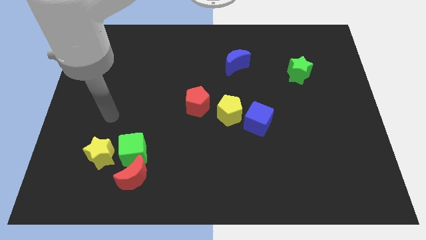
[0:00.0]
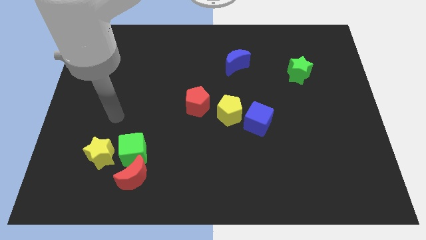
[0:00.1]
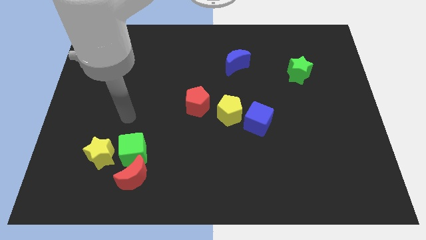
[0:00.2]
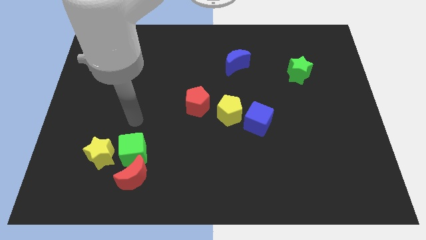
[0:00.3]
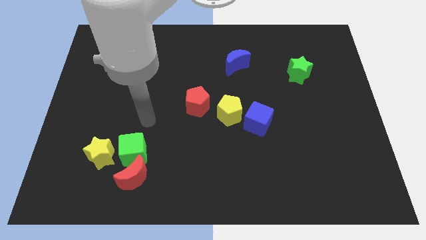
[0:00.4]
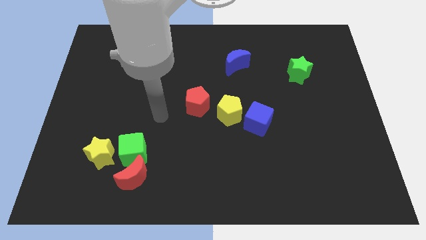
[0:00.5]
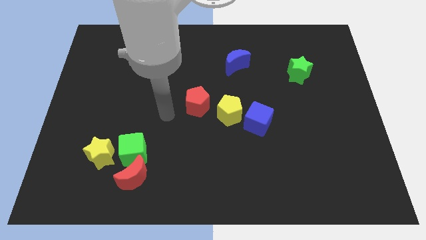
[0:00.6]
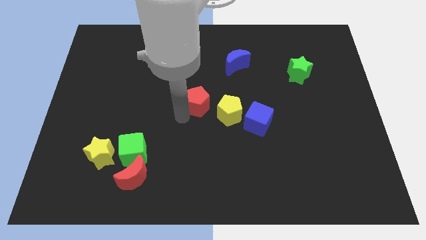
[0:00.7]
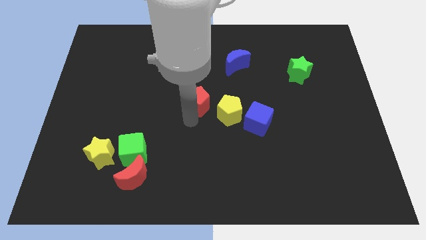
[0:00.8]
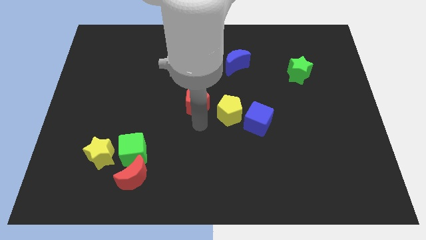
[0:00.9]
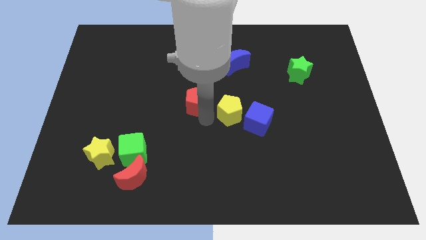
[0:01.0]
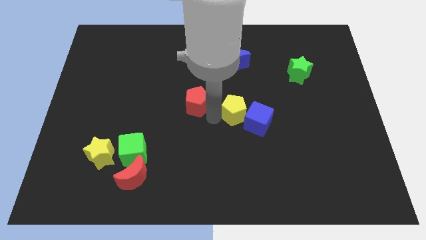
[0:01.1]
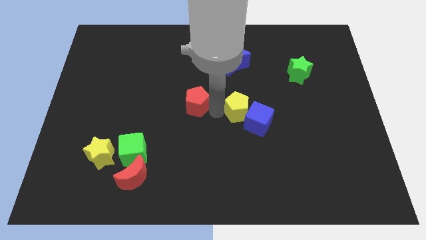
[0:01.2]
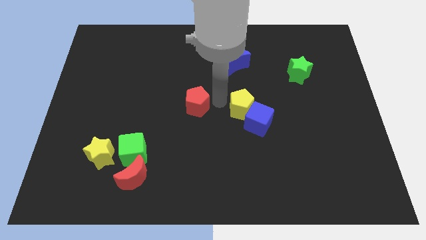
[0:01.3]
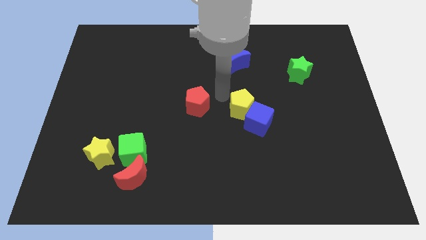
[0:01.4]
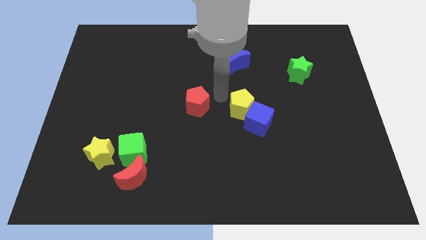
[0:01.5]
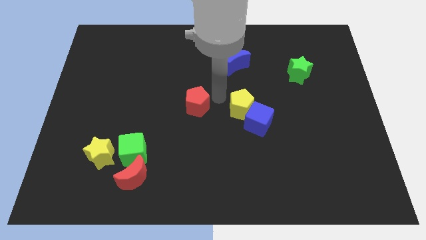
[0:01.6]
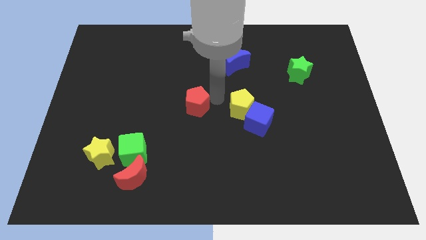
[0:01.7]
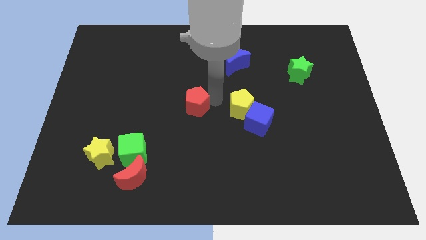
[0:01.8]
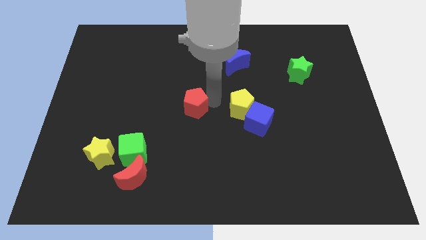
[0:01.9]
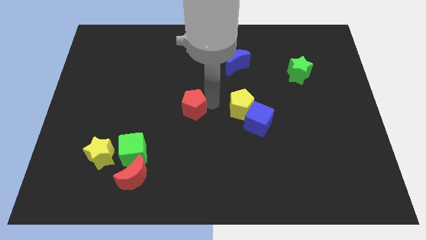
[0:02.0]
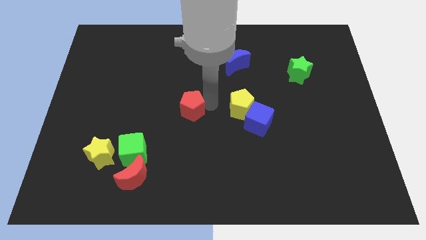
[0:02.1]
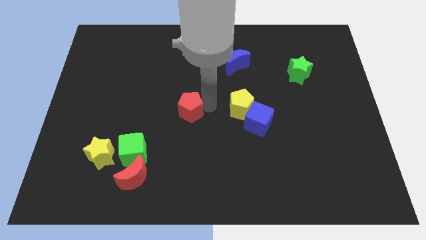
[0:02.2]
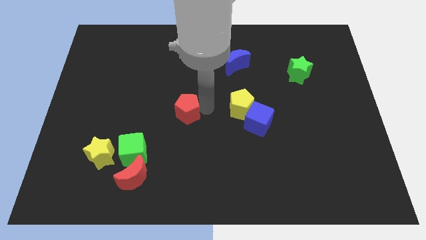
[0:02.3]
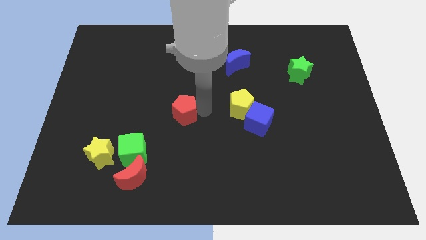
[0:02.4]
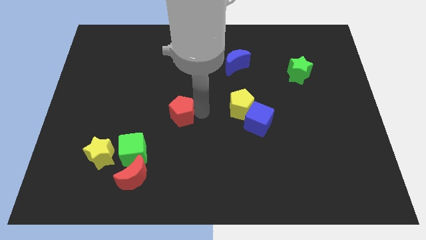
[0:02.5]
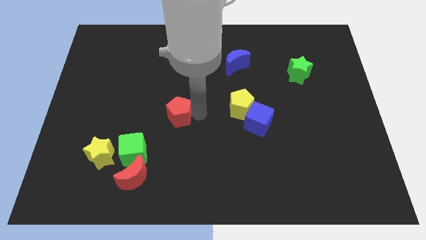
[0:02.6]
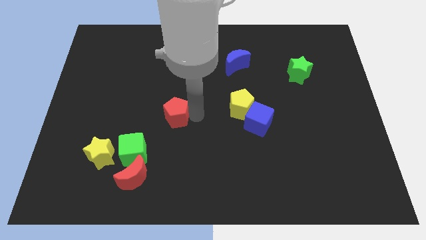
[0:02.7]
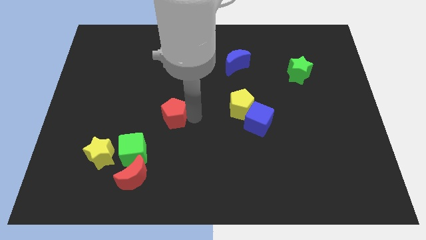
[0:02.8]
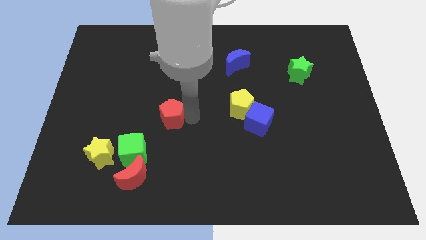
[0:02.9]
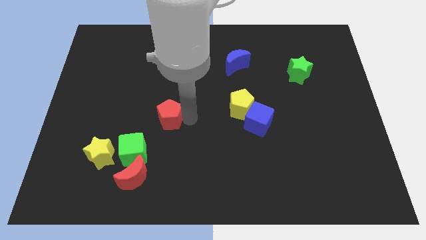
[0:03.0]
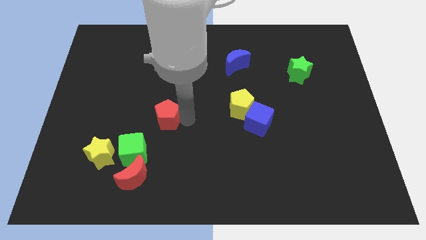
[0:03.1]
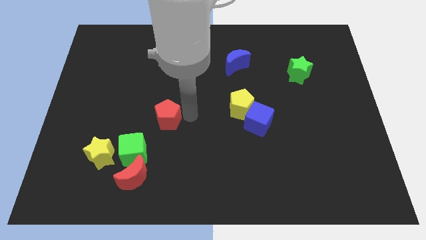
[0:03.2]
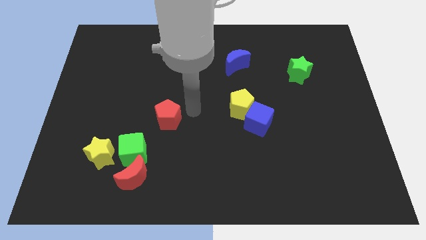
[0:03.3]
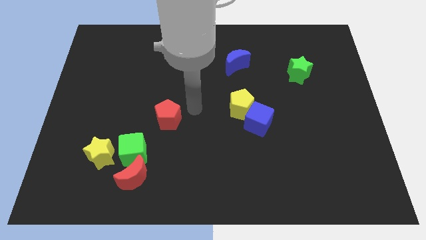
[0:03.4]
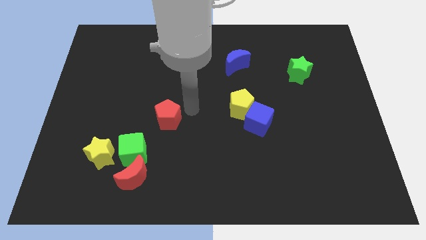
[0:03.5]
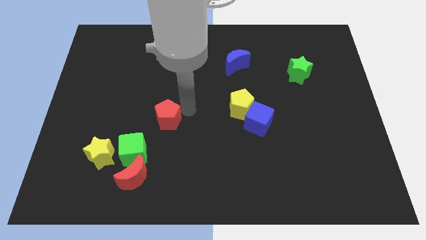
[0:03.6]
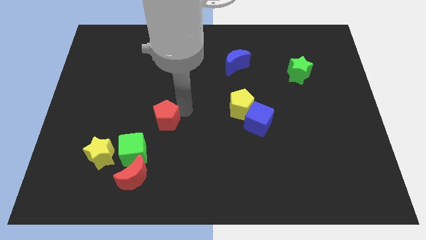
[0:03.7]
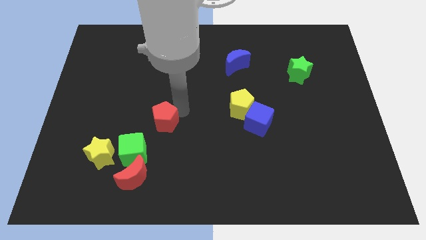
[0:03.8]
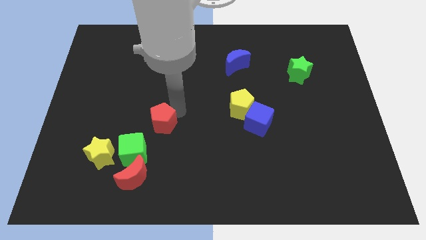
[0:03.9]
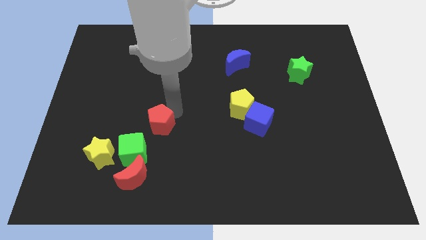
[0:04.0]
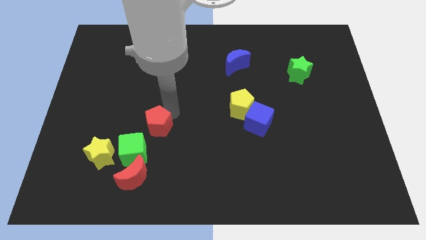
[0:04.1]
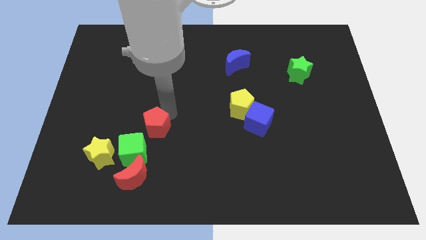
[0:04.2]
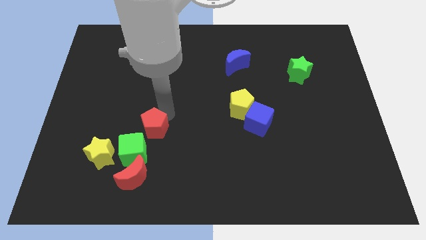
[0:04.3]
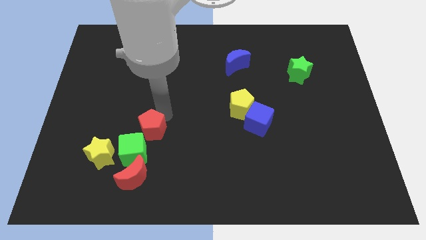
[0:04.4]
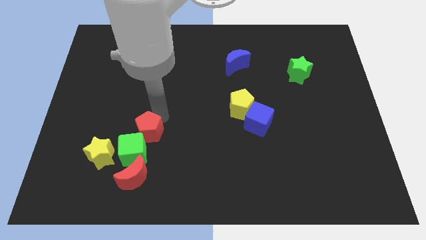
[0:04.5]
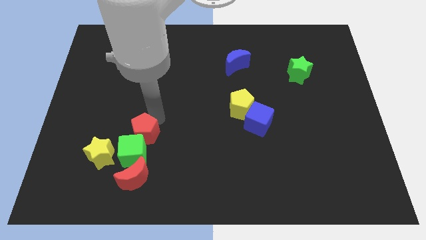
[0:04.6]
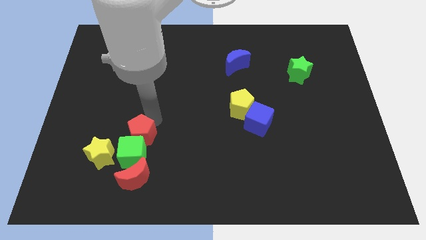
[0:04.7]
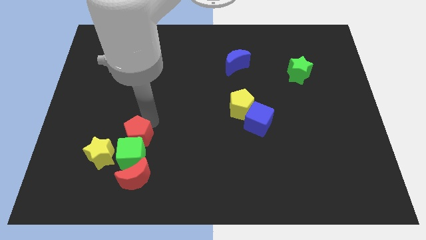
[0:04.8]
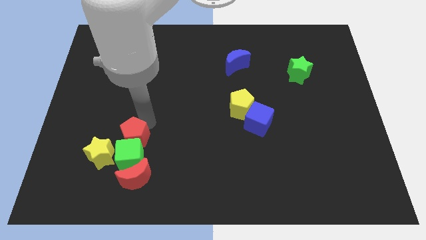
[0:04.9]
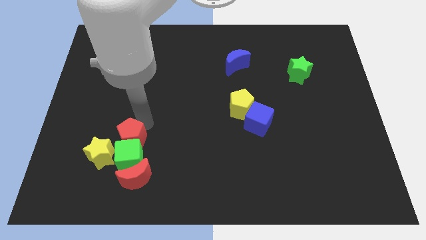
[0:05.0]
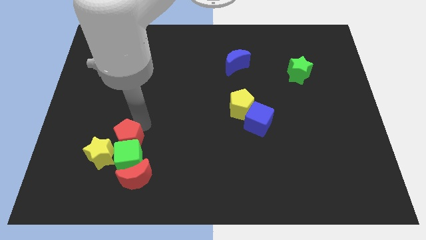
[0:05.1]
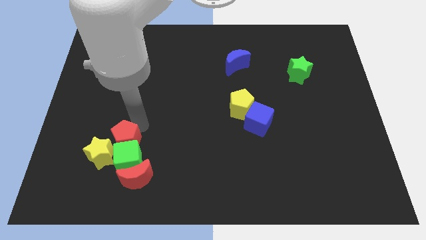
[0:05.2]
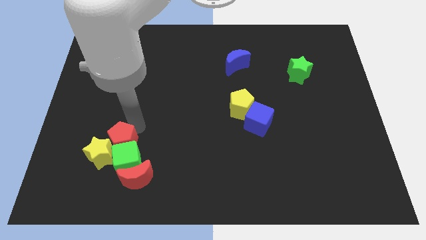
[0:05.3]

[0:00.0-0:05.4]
push the red pentagon next to the yellow star

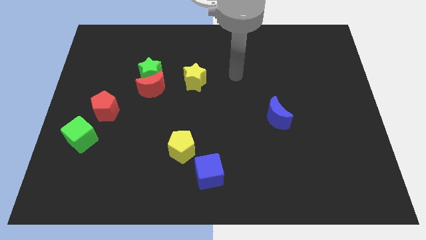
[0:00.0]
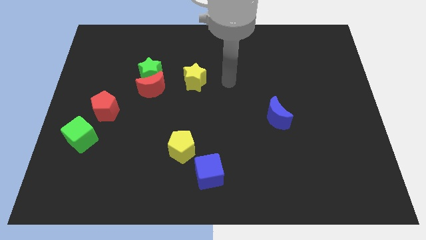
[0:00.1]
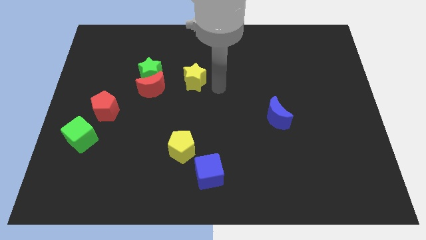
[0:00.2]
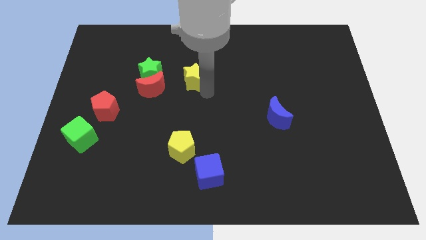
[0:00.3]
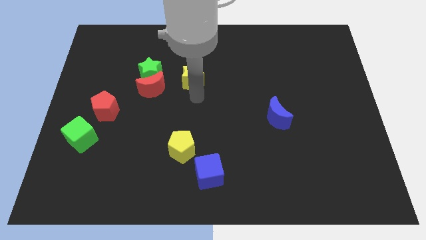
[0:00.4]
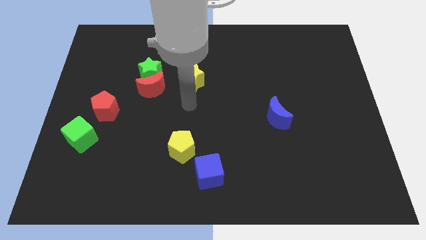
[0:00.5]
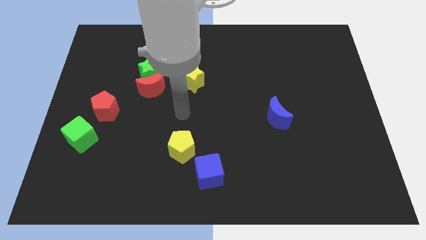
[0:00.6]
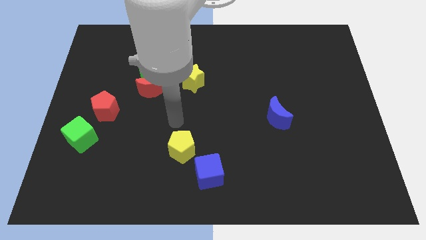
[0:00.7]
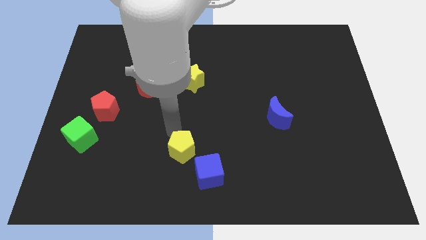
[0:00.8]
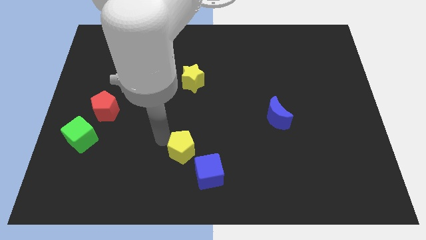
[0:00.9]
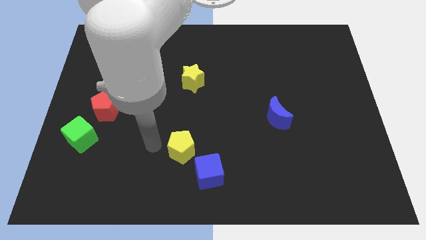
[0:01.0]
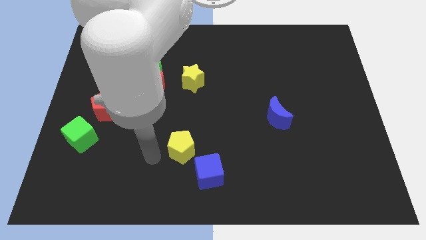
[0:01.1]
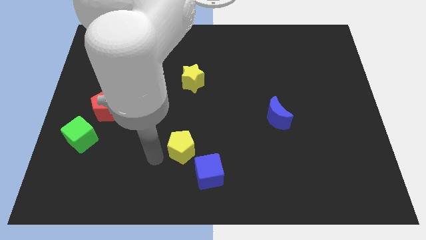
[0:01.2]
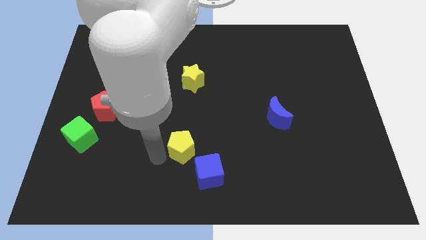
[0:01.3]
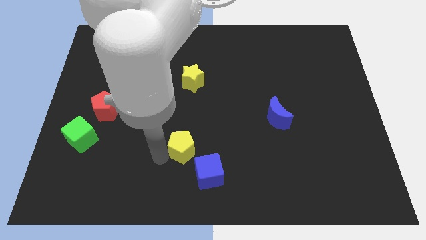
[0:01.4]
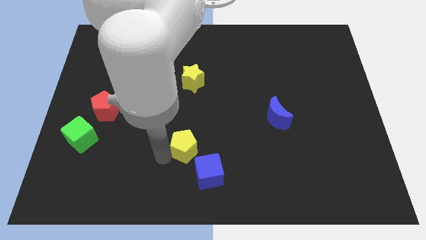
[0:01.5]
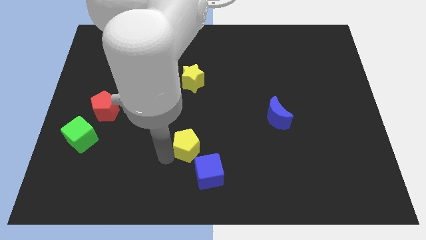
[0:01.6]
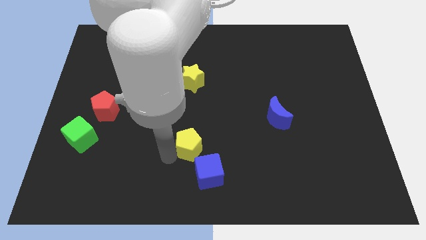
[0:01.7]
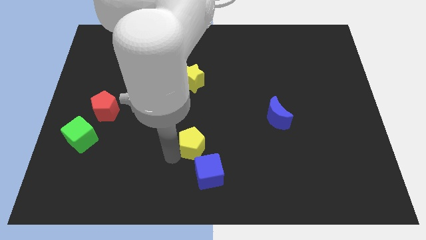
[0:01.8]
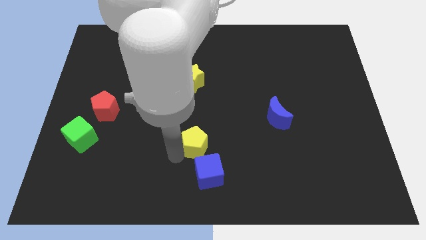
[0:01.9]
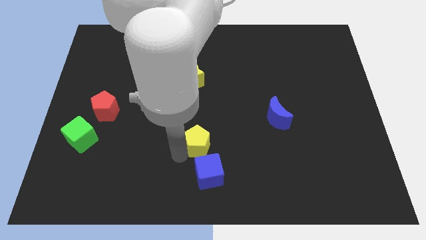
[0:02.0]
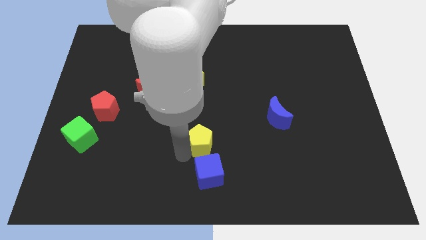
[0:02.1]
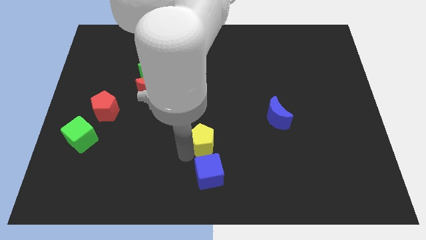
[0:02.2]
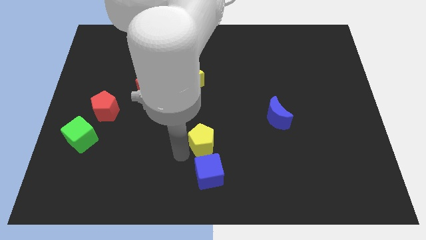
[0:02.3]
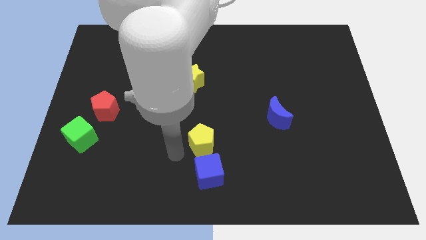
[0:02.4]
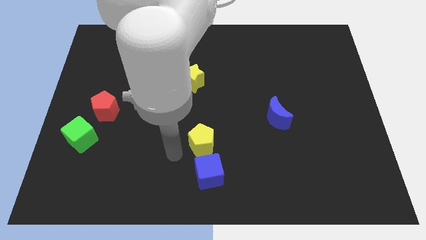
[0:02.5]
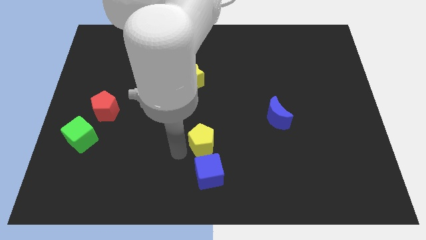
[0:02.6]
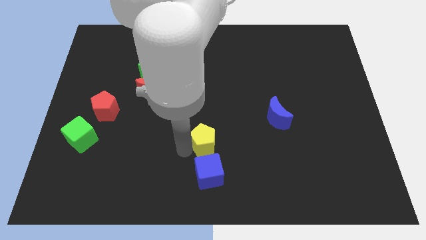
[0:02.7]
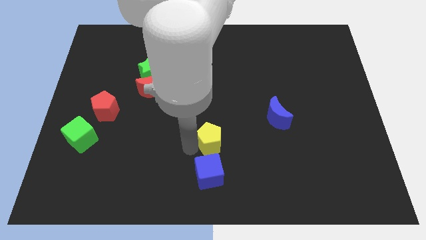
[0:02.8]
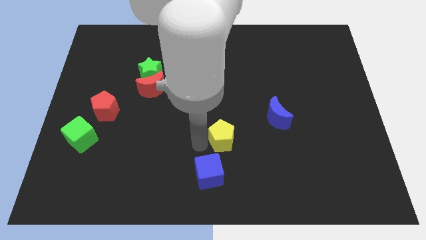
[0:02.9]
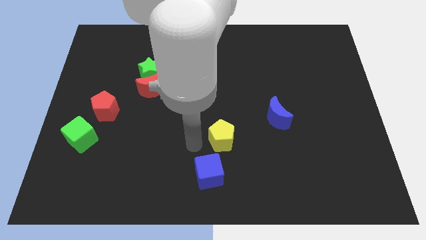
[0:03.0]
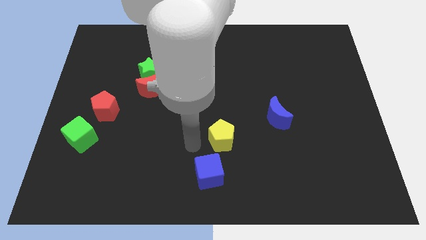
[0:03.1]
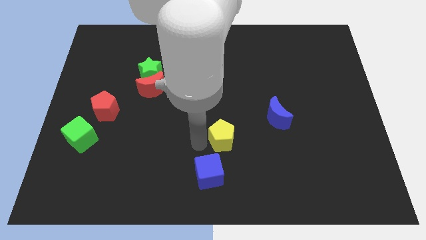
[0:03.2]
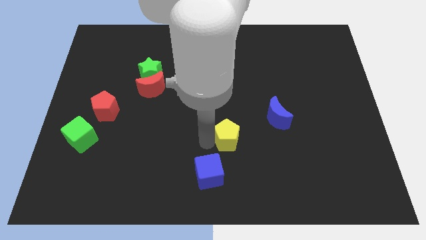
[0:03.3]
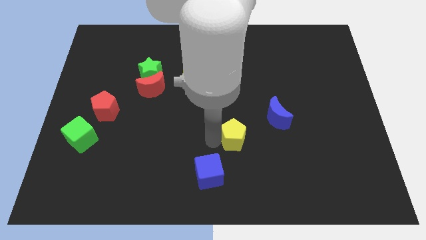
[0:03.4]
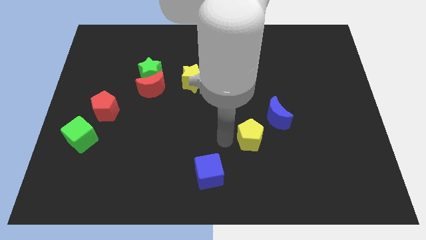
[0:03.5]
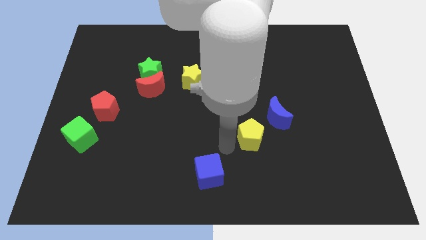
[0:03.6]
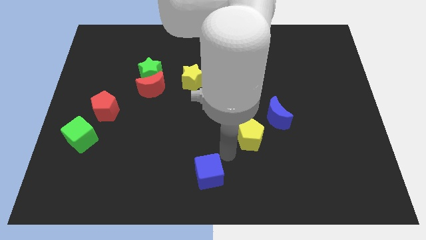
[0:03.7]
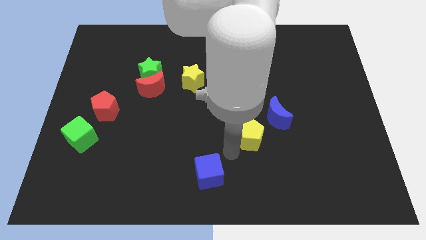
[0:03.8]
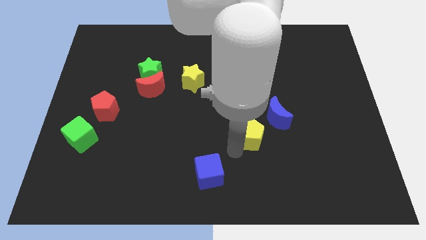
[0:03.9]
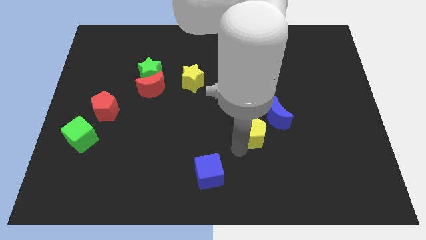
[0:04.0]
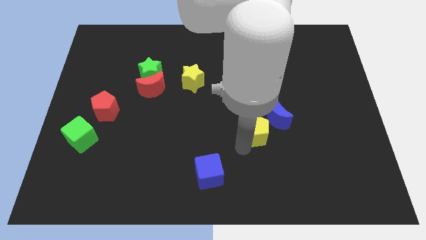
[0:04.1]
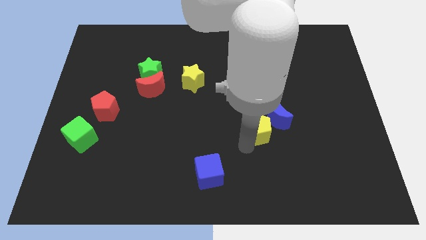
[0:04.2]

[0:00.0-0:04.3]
push the yellow pentagon to the blue moon
